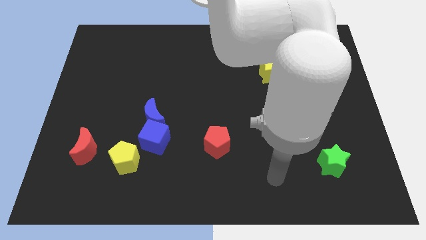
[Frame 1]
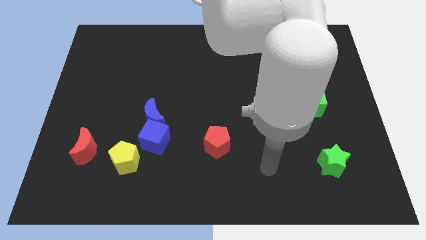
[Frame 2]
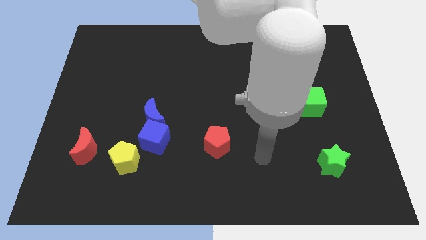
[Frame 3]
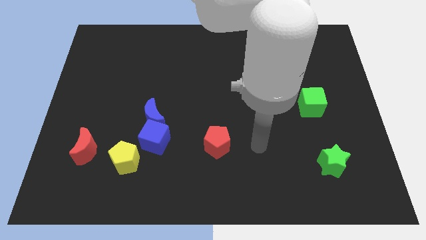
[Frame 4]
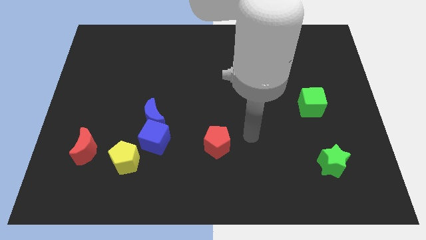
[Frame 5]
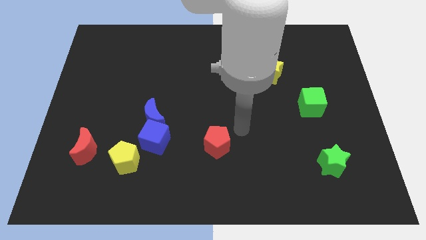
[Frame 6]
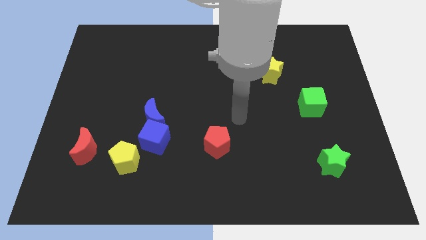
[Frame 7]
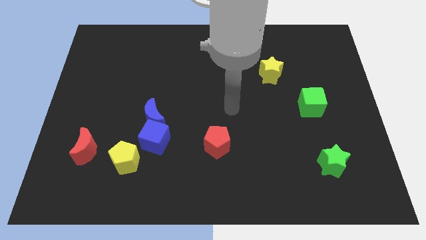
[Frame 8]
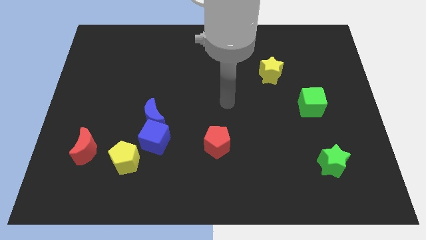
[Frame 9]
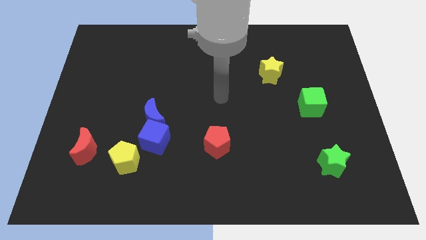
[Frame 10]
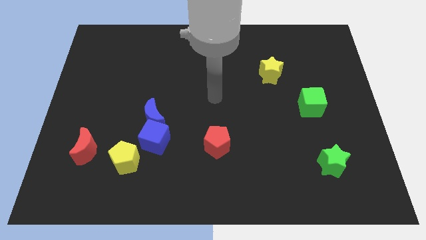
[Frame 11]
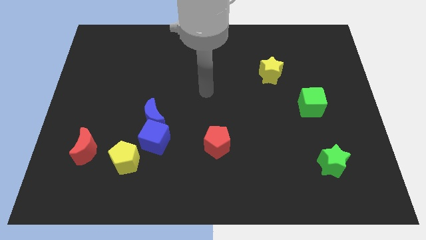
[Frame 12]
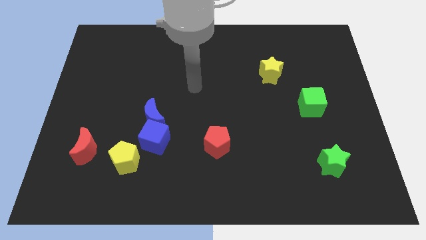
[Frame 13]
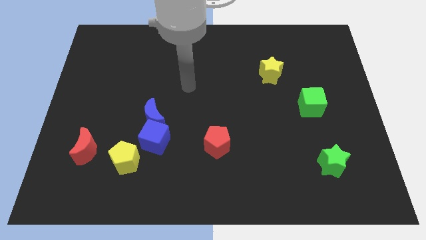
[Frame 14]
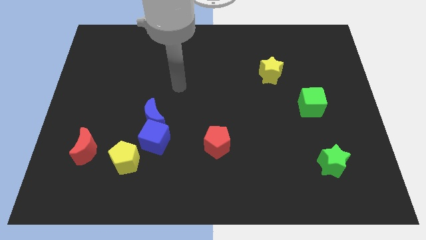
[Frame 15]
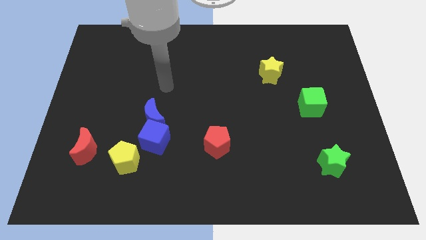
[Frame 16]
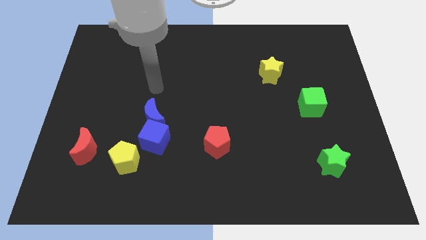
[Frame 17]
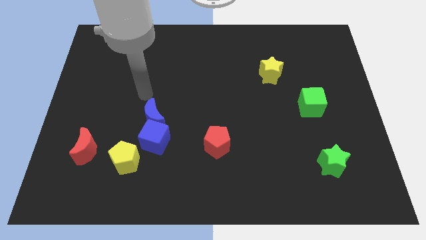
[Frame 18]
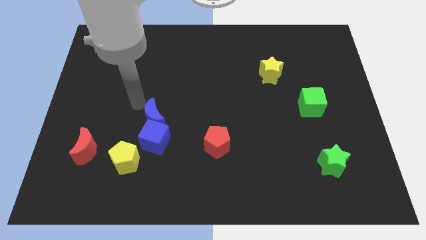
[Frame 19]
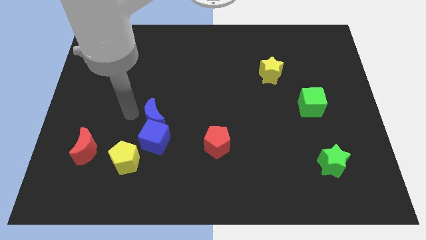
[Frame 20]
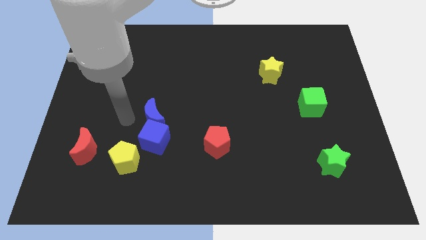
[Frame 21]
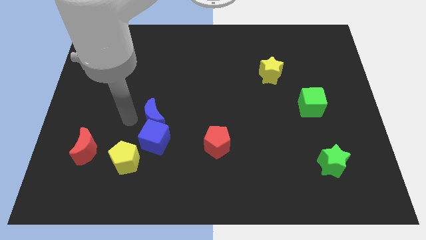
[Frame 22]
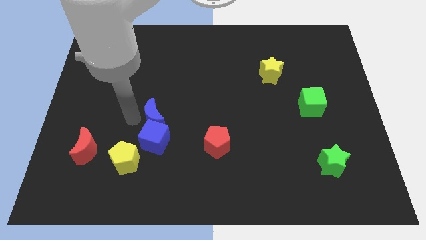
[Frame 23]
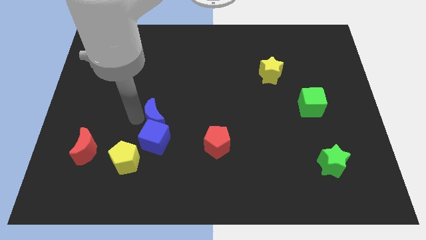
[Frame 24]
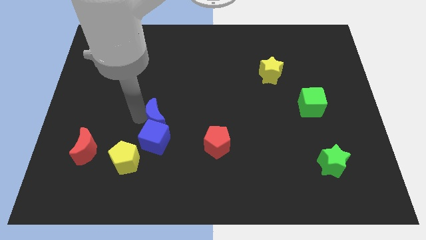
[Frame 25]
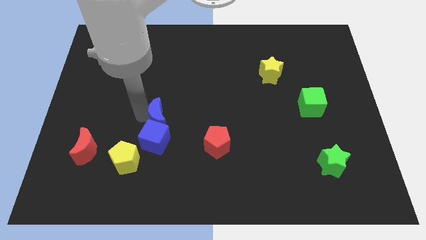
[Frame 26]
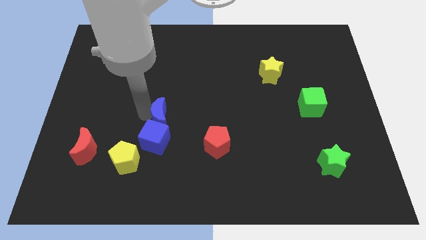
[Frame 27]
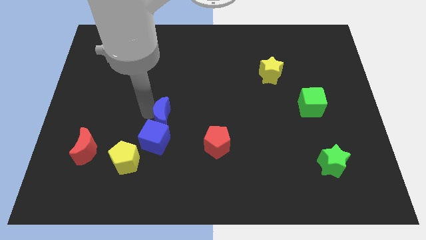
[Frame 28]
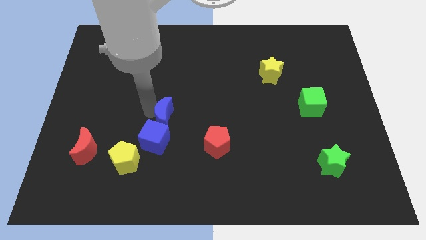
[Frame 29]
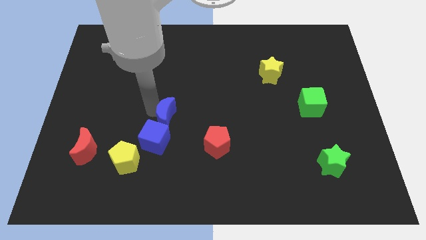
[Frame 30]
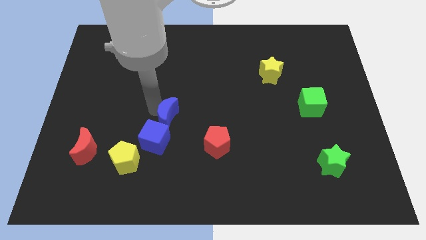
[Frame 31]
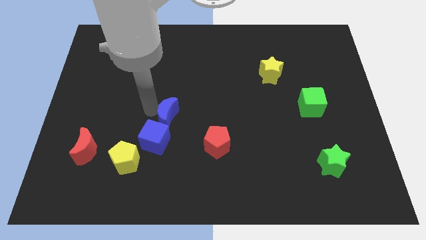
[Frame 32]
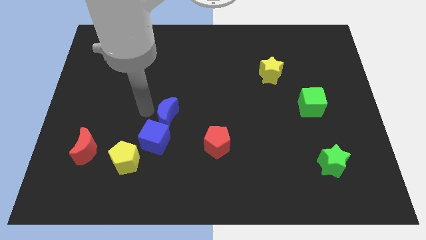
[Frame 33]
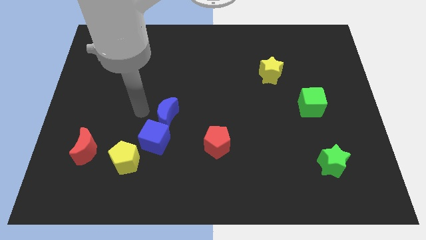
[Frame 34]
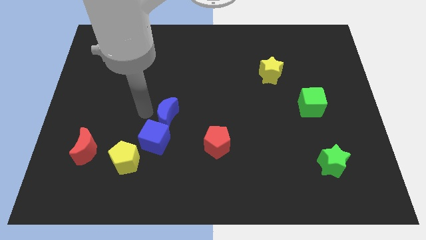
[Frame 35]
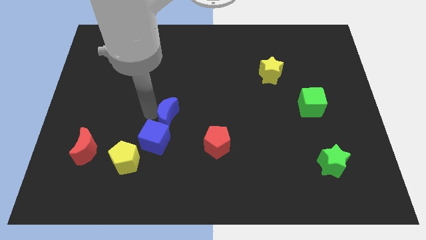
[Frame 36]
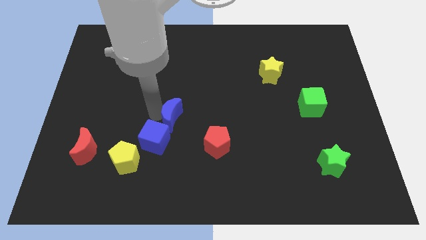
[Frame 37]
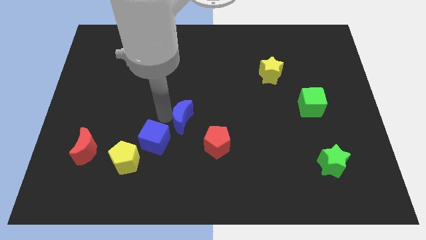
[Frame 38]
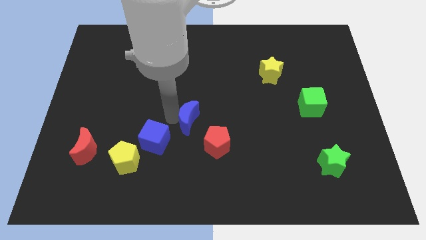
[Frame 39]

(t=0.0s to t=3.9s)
move the blue moon slightly to the right

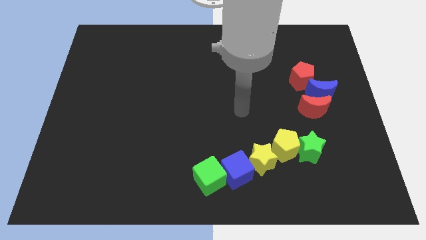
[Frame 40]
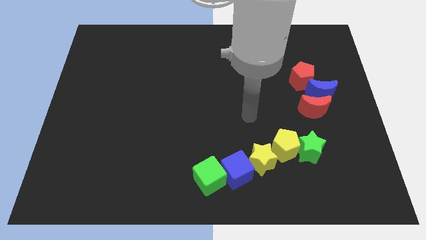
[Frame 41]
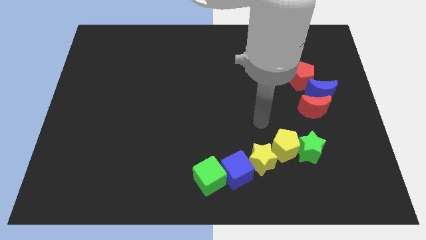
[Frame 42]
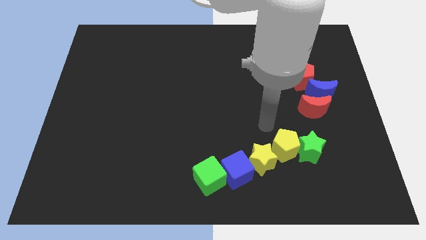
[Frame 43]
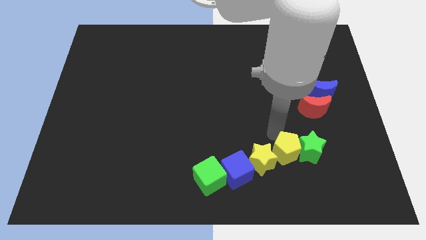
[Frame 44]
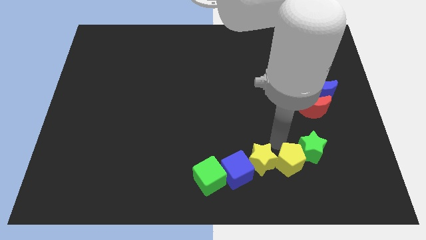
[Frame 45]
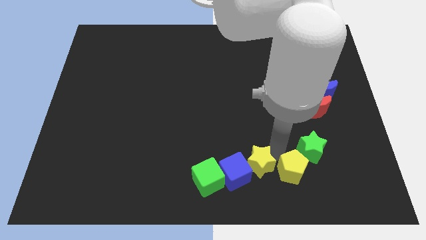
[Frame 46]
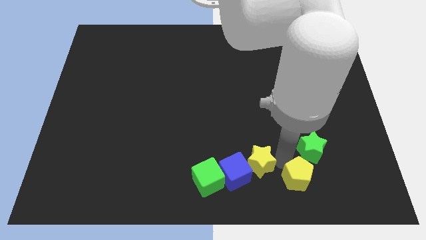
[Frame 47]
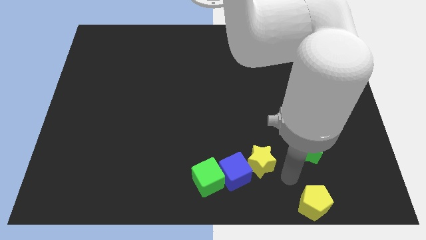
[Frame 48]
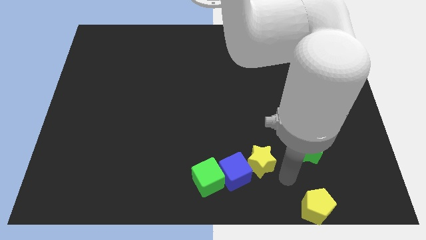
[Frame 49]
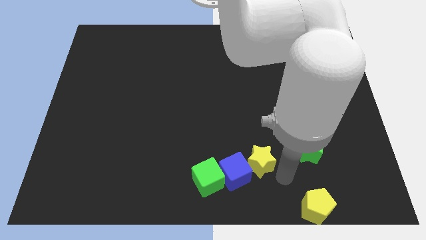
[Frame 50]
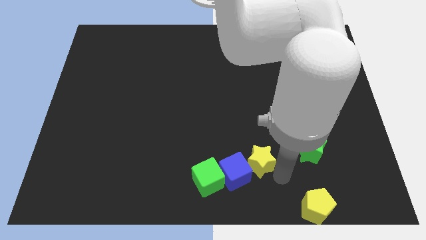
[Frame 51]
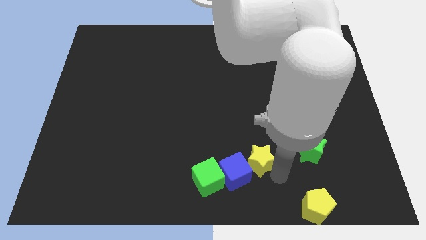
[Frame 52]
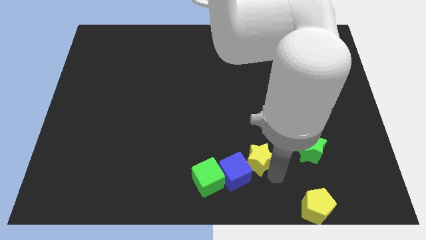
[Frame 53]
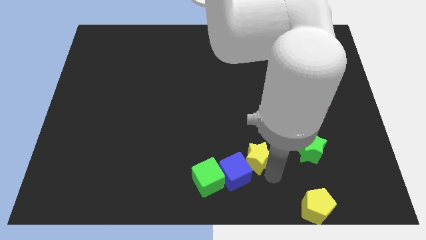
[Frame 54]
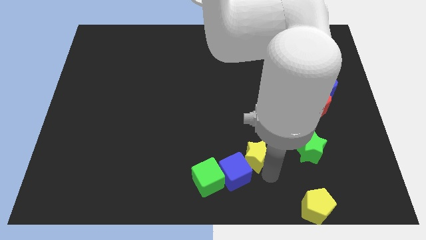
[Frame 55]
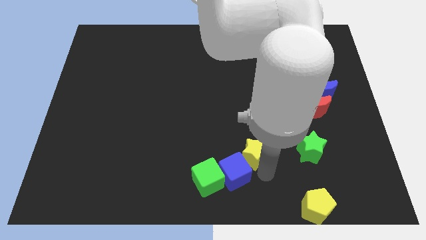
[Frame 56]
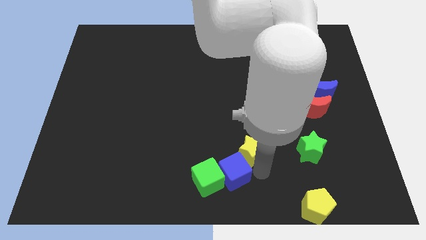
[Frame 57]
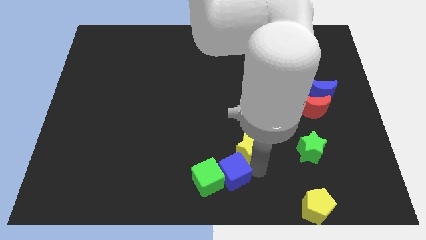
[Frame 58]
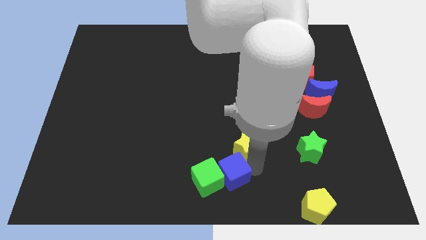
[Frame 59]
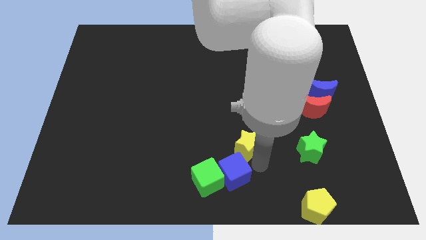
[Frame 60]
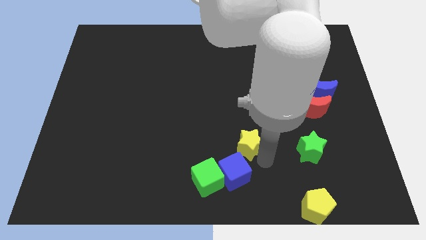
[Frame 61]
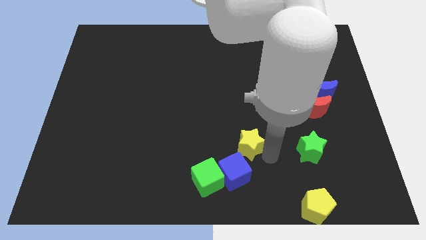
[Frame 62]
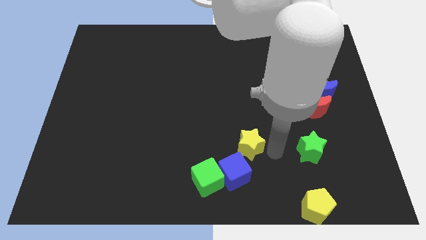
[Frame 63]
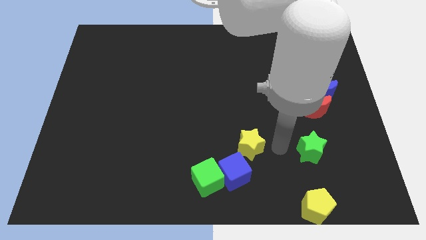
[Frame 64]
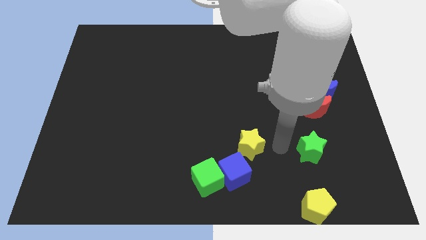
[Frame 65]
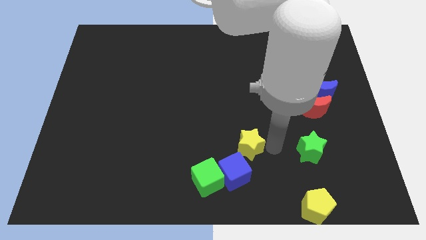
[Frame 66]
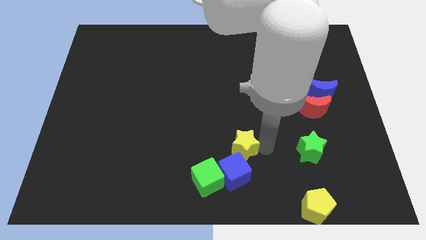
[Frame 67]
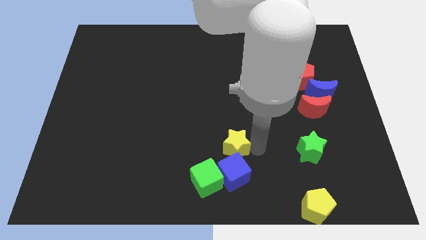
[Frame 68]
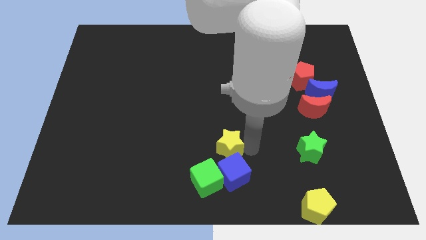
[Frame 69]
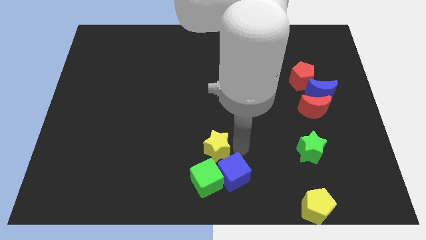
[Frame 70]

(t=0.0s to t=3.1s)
slide the yellow star somewhat left

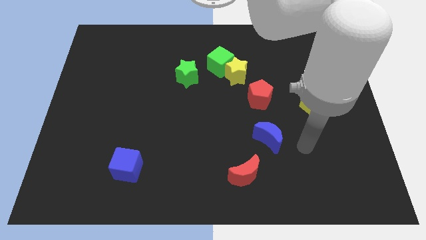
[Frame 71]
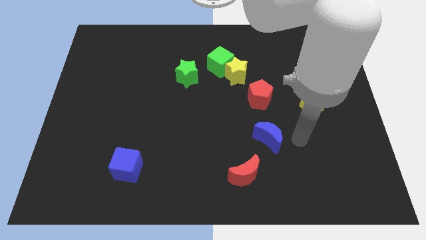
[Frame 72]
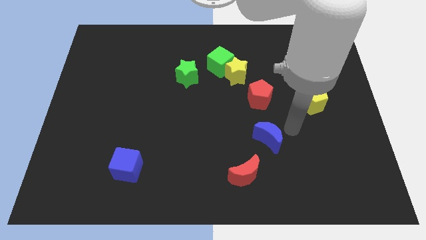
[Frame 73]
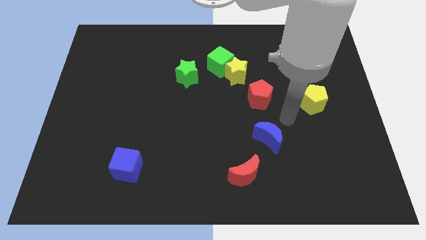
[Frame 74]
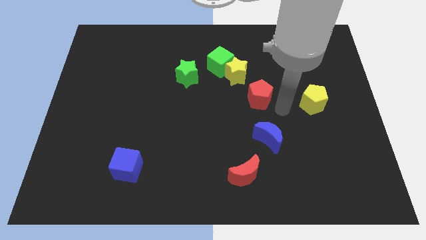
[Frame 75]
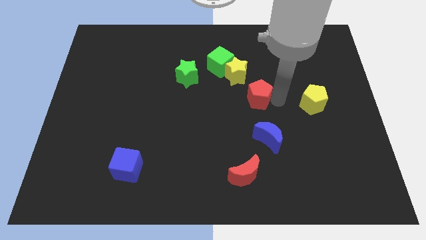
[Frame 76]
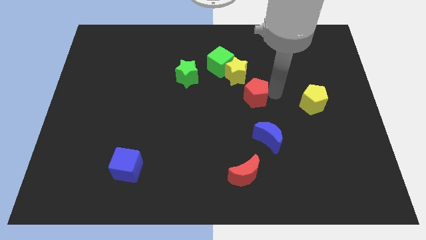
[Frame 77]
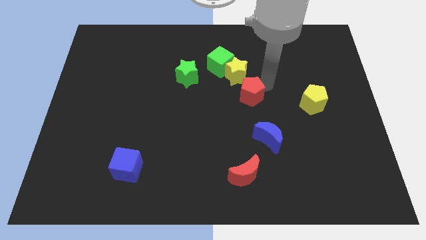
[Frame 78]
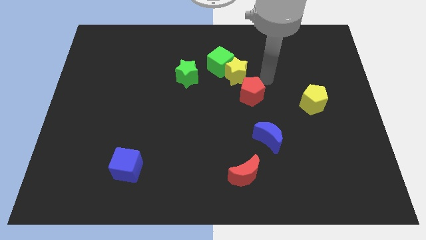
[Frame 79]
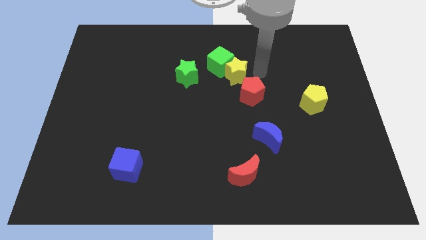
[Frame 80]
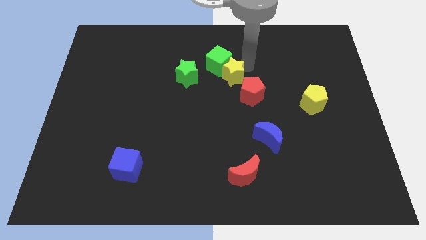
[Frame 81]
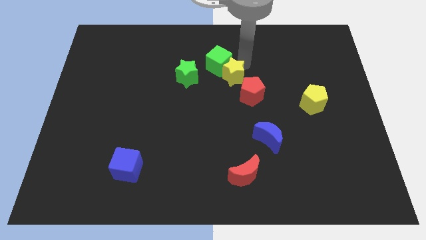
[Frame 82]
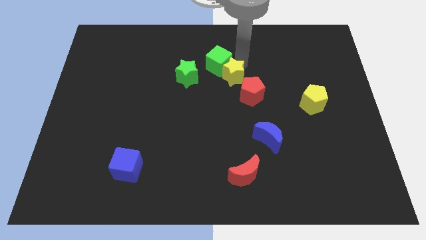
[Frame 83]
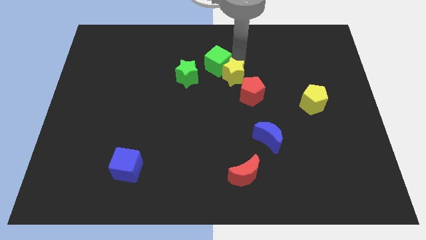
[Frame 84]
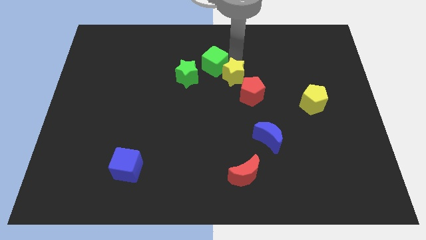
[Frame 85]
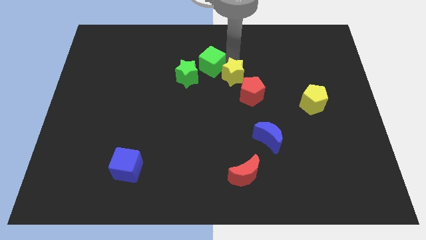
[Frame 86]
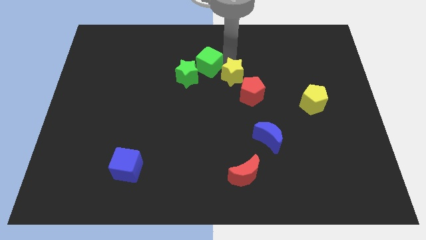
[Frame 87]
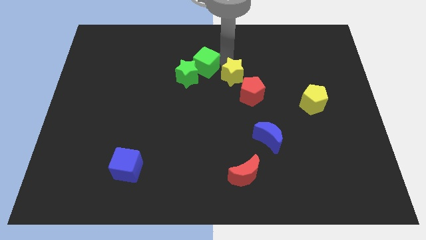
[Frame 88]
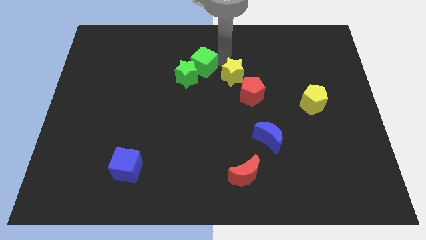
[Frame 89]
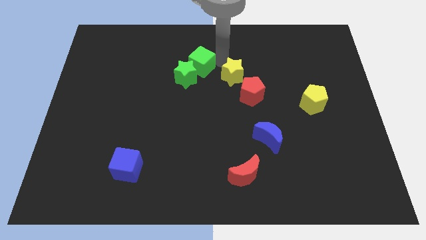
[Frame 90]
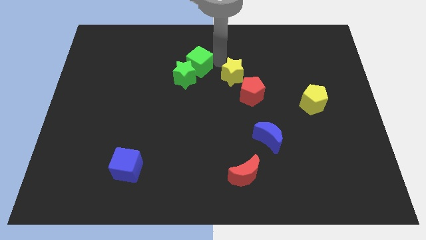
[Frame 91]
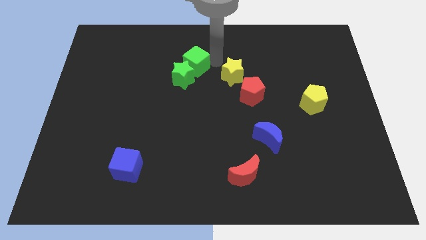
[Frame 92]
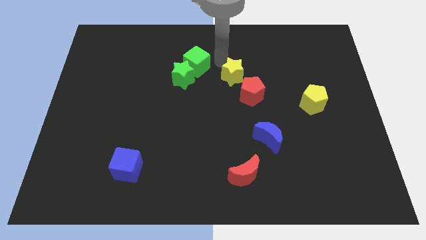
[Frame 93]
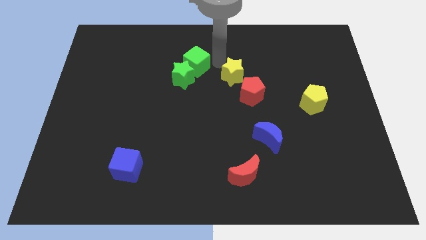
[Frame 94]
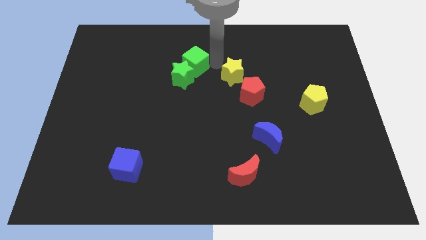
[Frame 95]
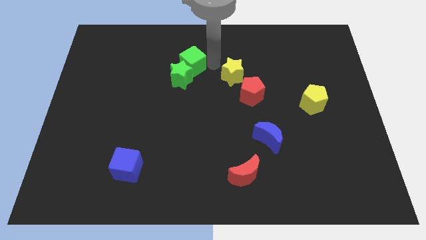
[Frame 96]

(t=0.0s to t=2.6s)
slightly move the green cube to the left
